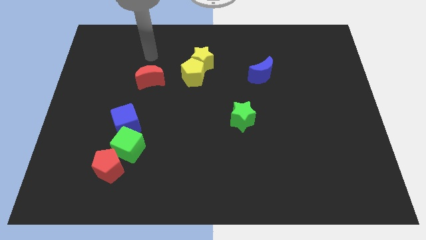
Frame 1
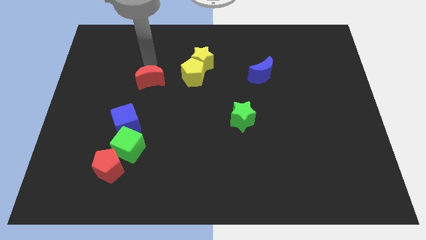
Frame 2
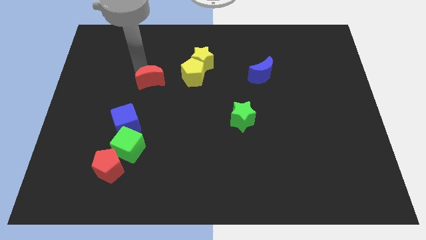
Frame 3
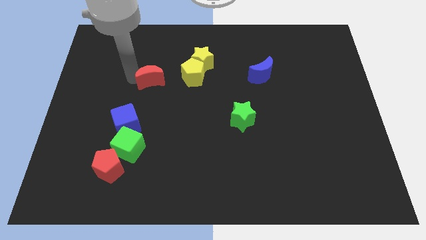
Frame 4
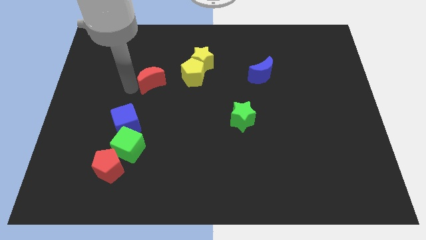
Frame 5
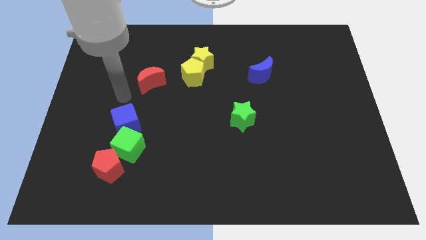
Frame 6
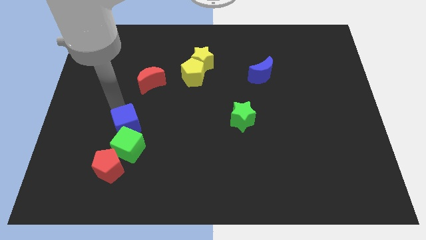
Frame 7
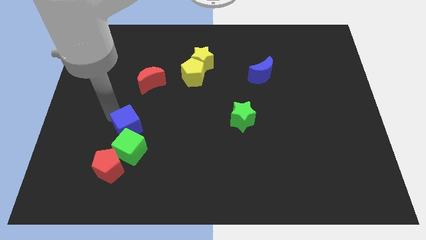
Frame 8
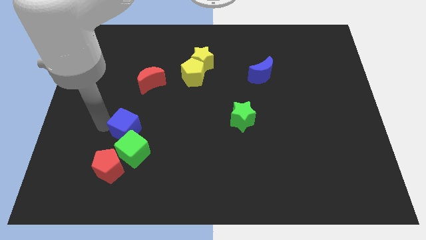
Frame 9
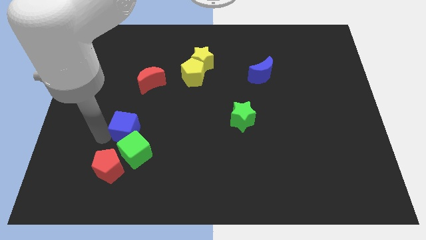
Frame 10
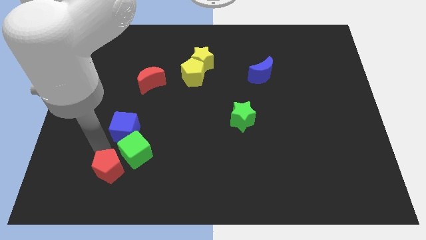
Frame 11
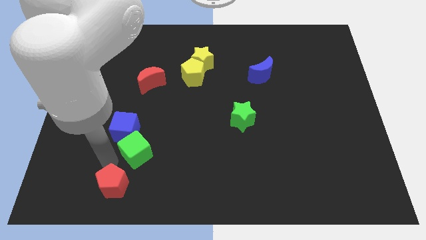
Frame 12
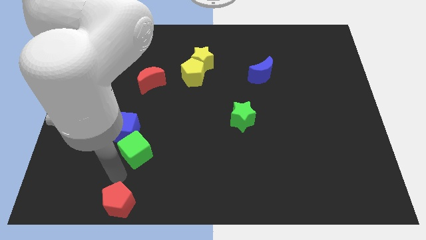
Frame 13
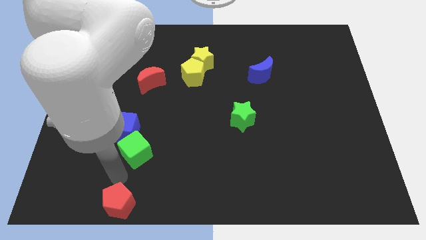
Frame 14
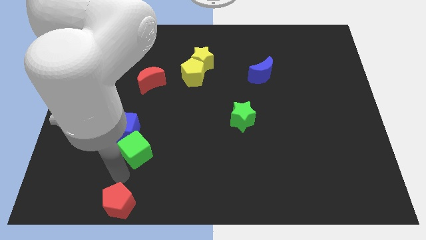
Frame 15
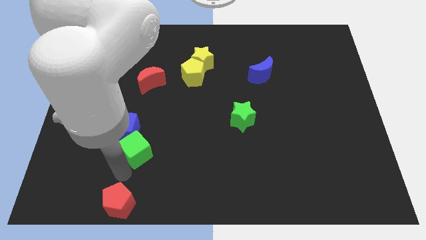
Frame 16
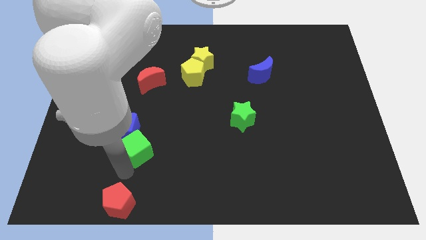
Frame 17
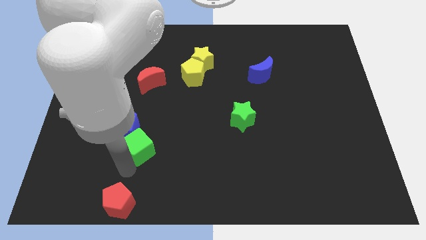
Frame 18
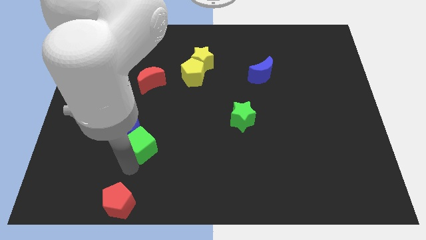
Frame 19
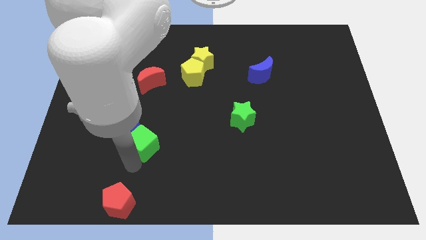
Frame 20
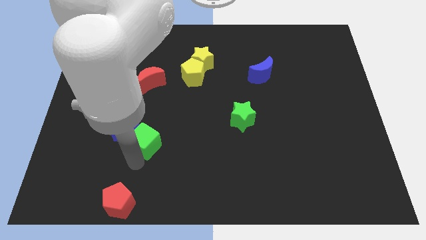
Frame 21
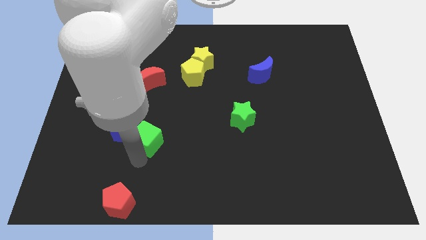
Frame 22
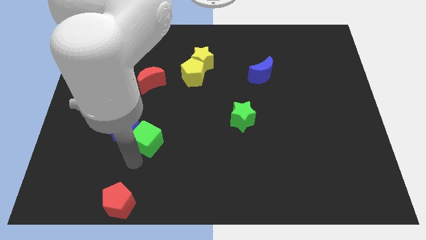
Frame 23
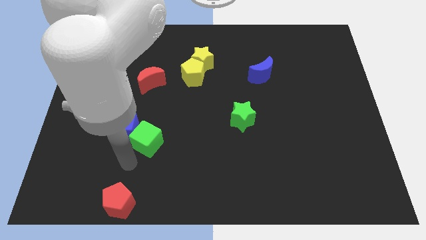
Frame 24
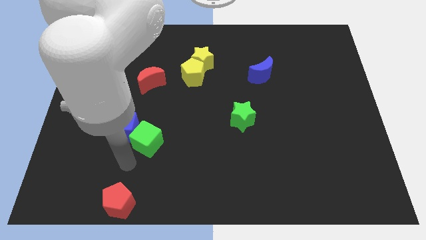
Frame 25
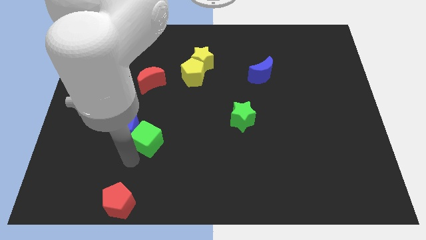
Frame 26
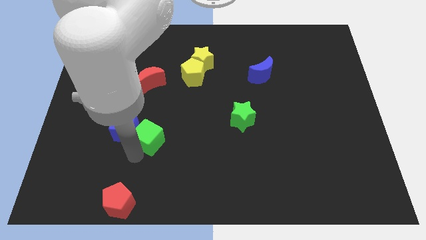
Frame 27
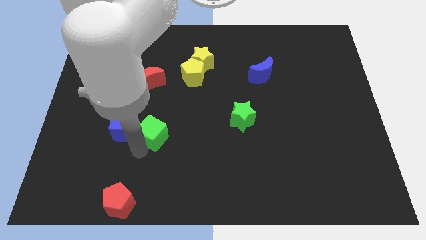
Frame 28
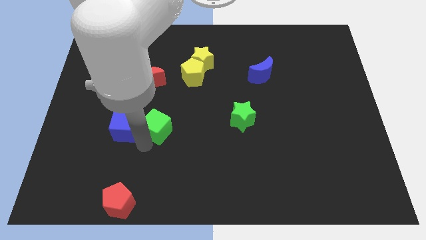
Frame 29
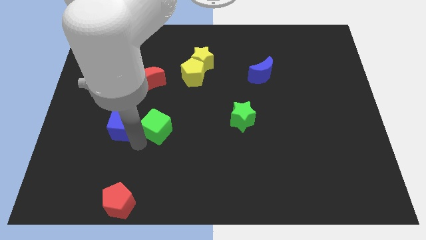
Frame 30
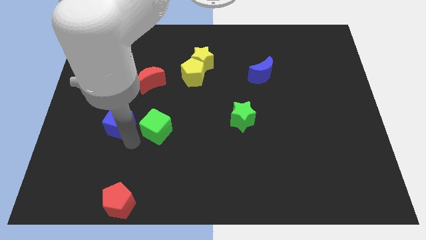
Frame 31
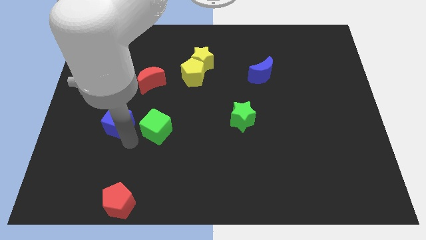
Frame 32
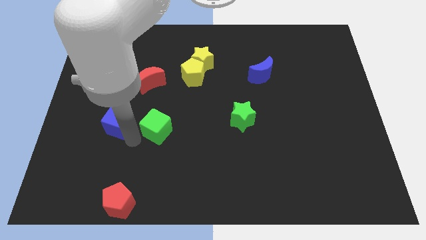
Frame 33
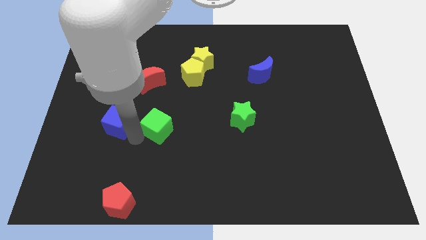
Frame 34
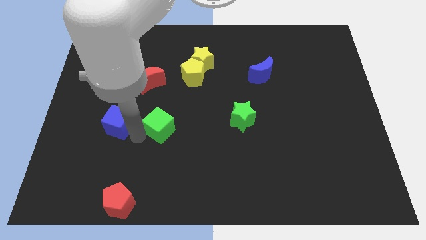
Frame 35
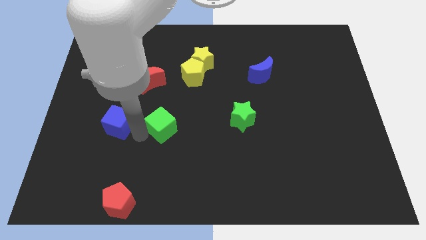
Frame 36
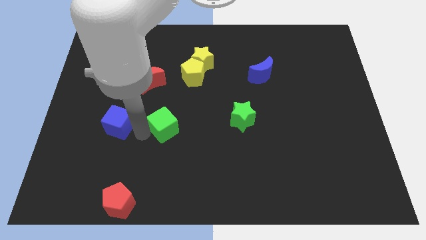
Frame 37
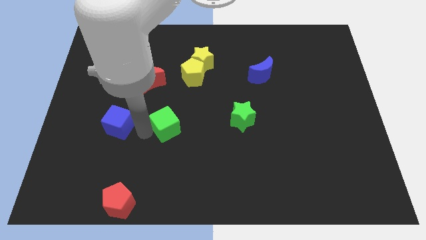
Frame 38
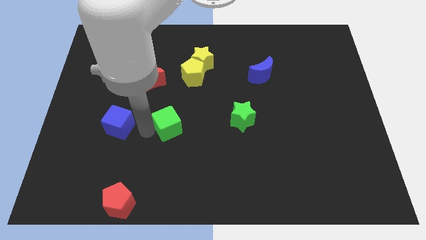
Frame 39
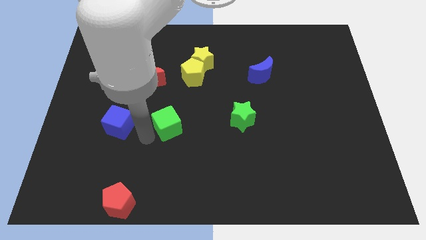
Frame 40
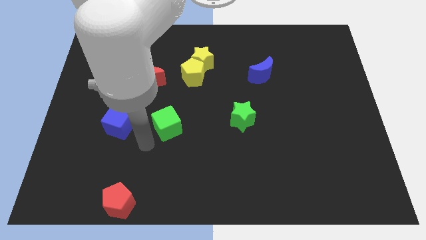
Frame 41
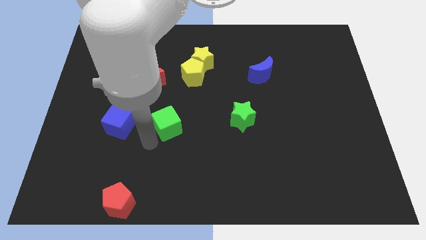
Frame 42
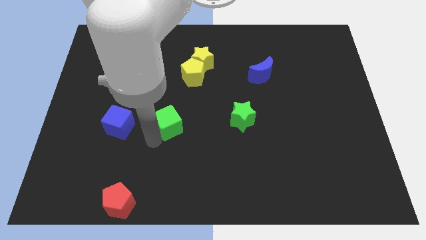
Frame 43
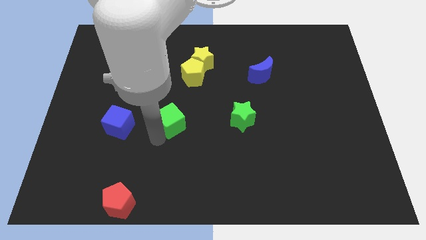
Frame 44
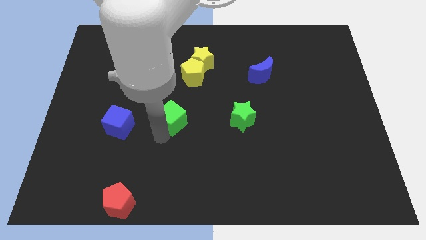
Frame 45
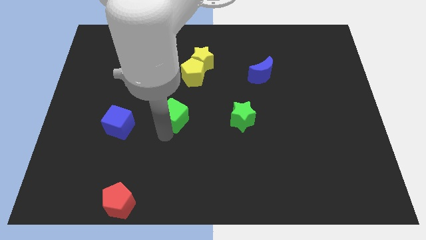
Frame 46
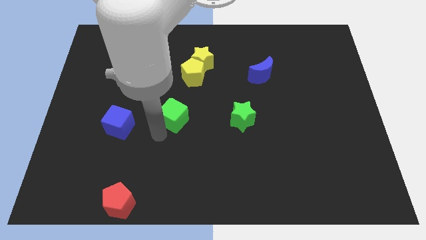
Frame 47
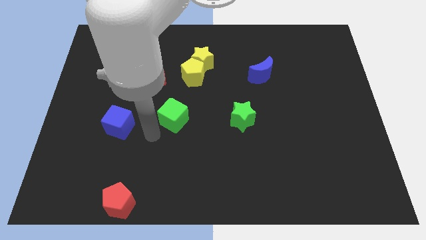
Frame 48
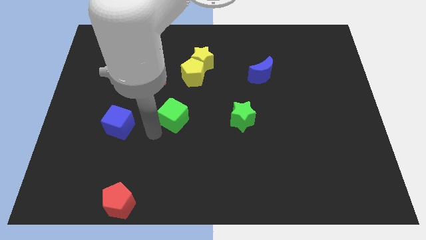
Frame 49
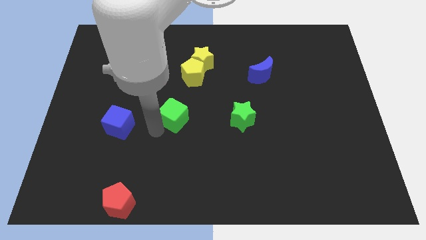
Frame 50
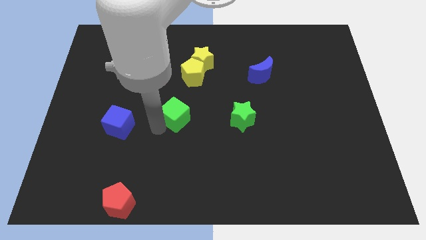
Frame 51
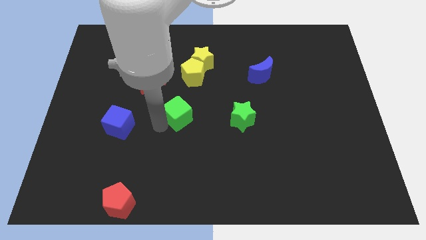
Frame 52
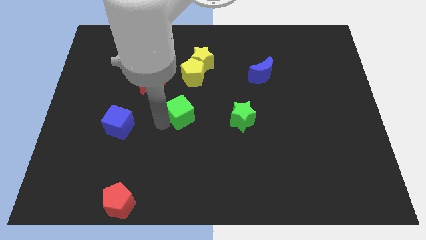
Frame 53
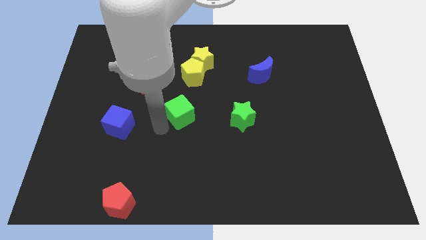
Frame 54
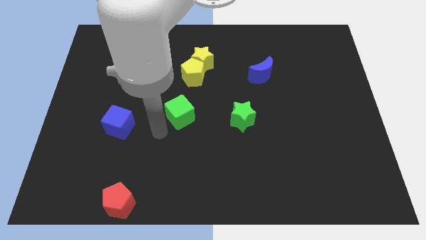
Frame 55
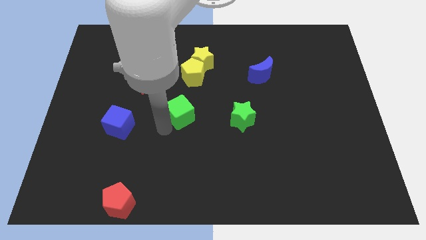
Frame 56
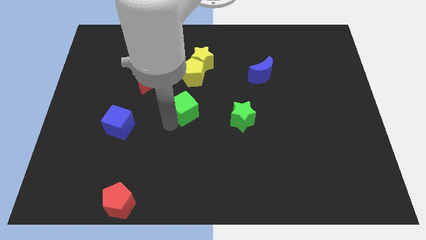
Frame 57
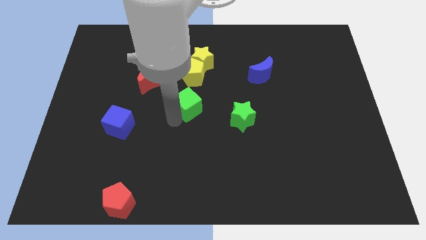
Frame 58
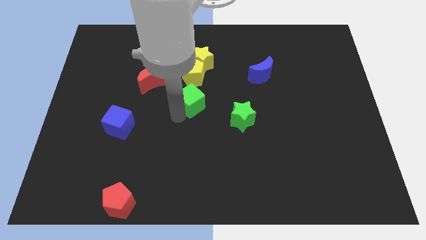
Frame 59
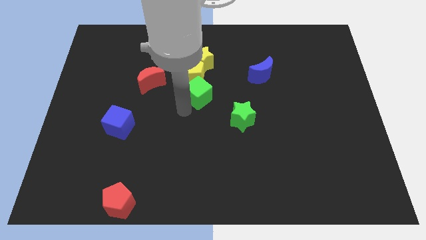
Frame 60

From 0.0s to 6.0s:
slide the green cube upwards and then right

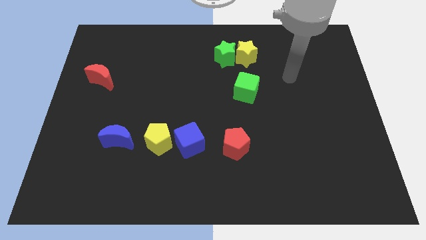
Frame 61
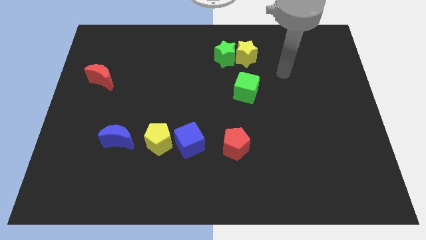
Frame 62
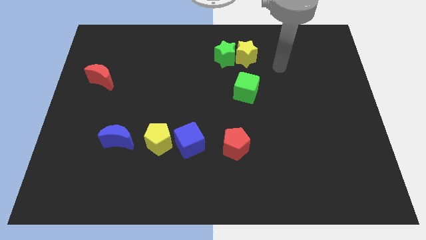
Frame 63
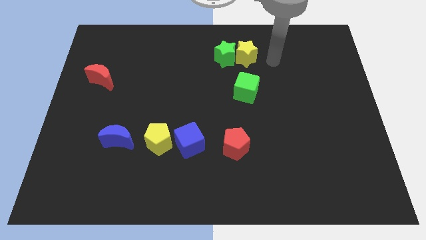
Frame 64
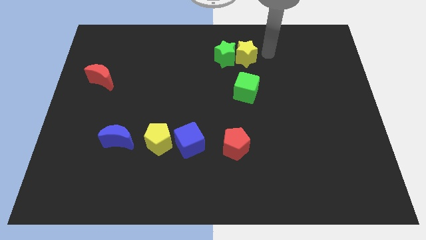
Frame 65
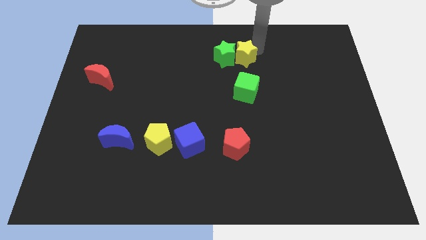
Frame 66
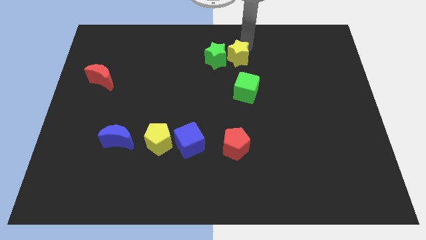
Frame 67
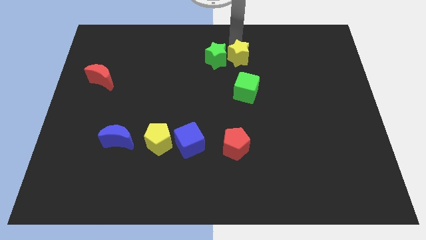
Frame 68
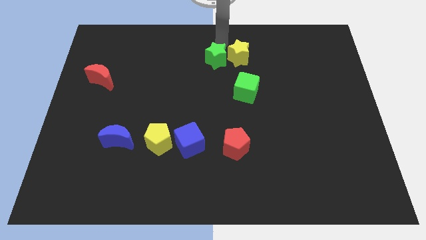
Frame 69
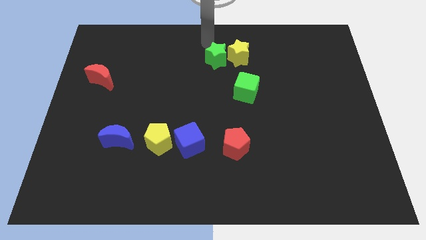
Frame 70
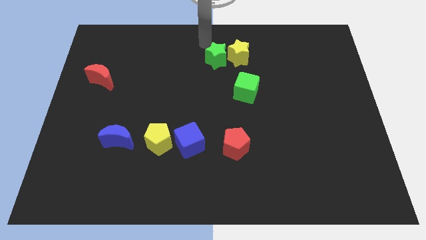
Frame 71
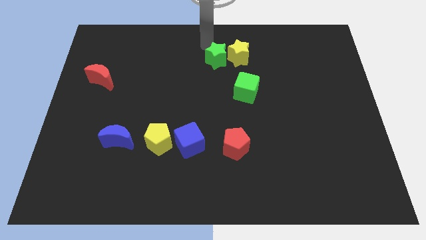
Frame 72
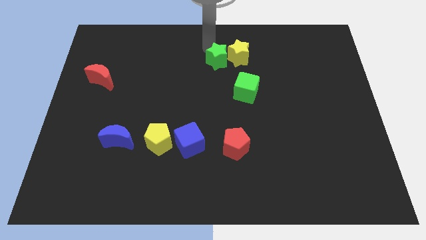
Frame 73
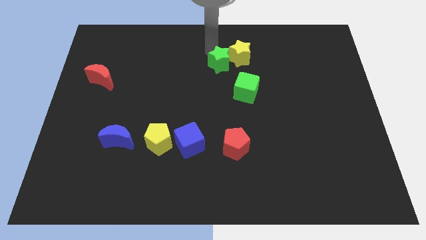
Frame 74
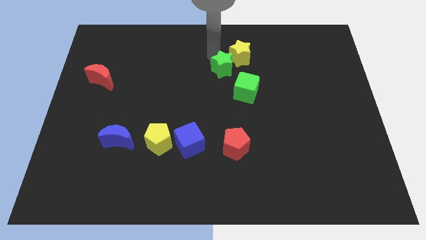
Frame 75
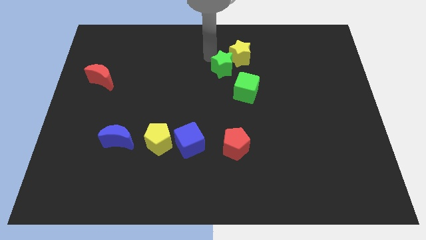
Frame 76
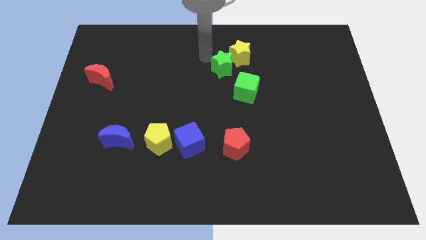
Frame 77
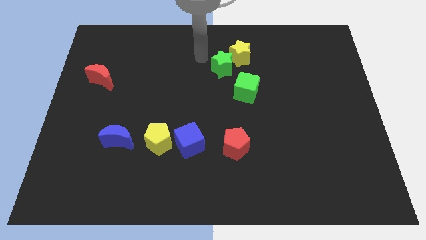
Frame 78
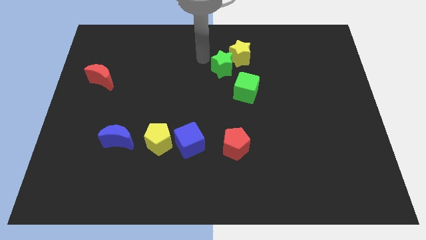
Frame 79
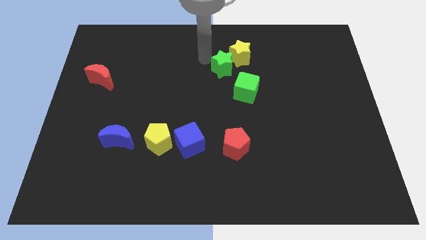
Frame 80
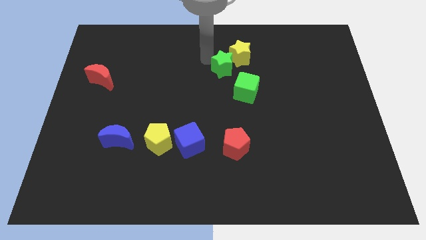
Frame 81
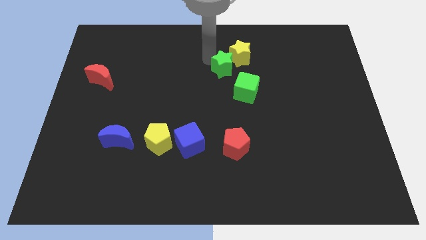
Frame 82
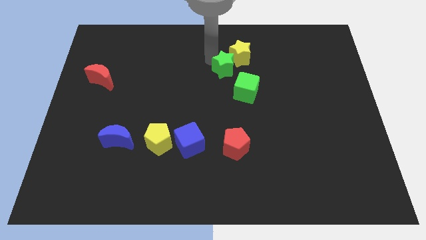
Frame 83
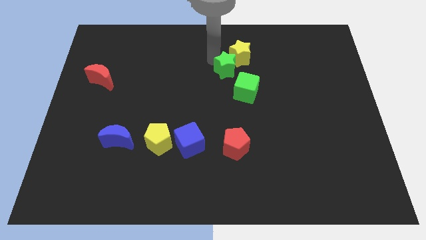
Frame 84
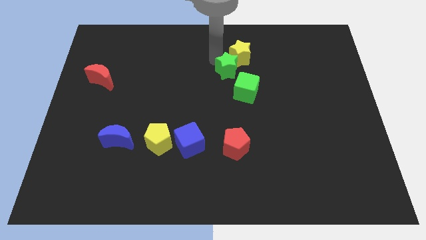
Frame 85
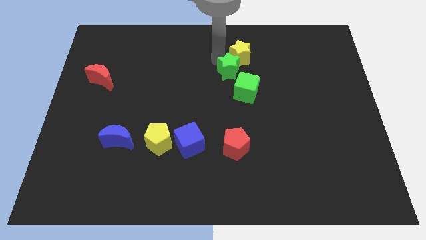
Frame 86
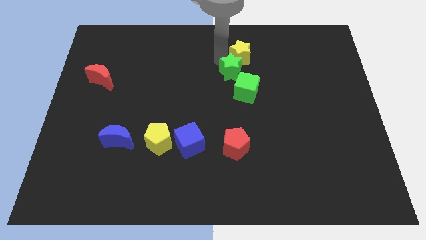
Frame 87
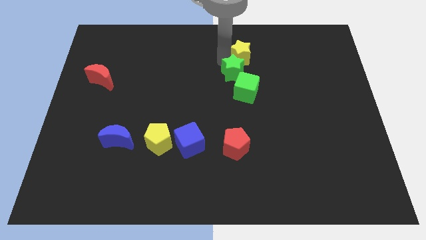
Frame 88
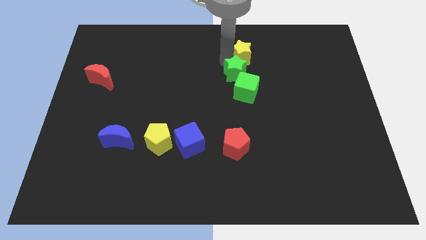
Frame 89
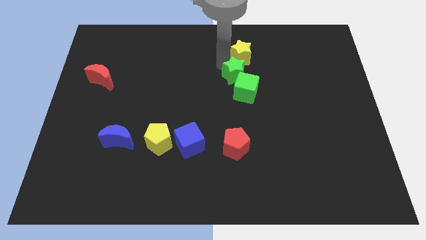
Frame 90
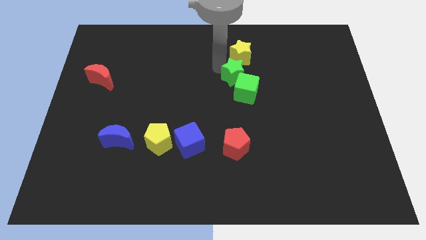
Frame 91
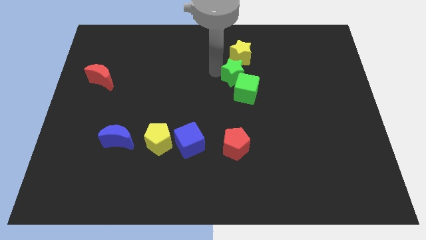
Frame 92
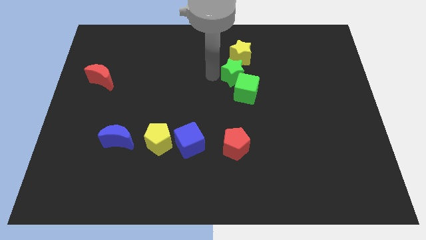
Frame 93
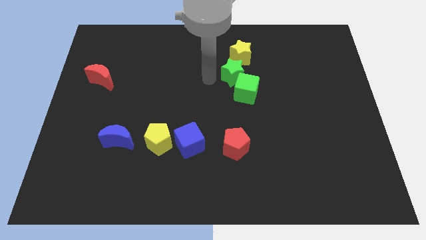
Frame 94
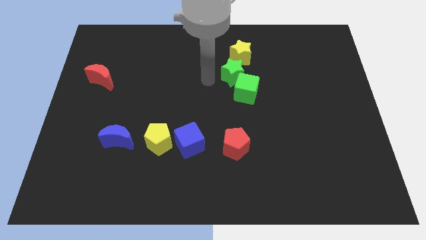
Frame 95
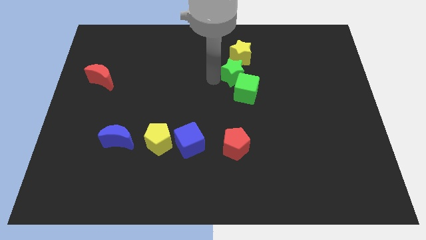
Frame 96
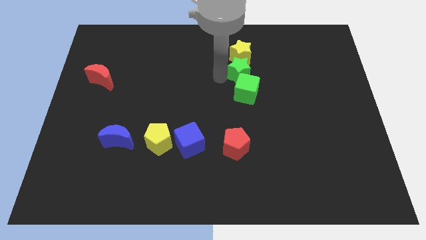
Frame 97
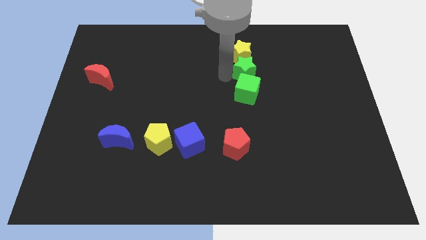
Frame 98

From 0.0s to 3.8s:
slightly slide the green star downwards and to the right
